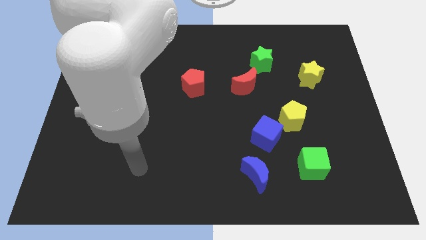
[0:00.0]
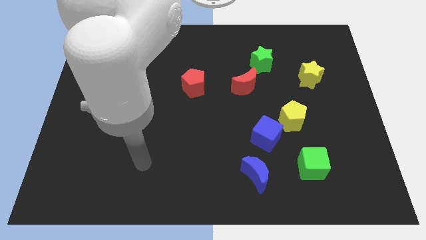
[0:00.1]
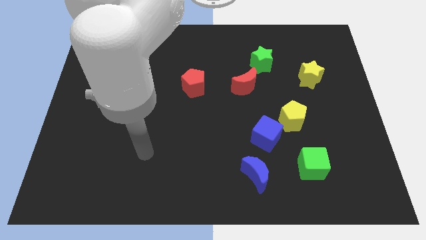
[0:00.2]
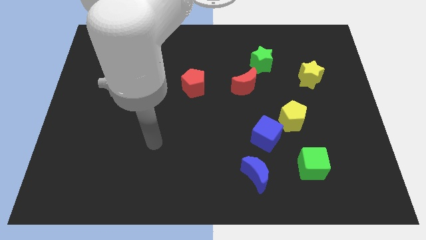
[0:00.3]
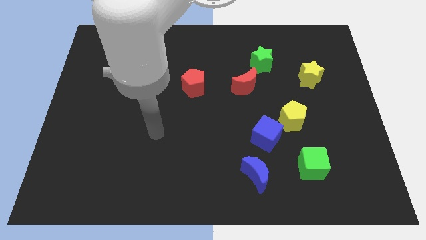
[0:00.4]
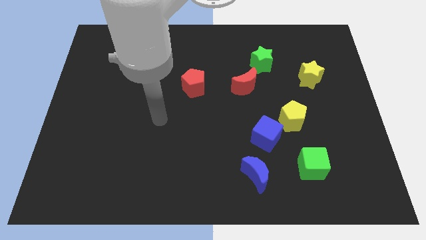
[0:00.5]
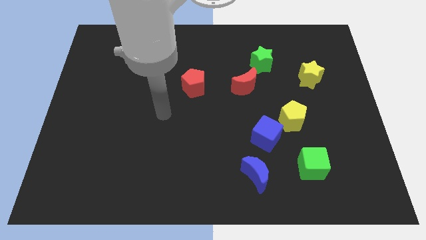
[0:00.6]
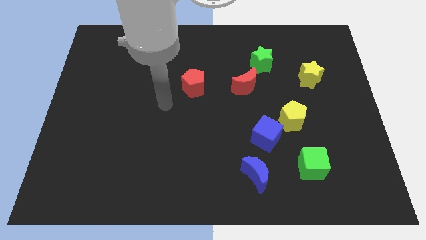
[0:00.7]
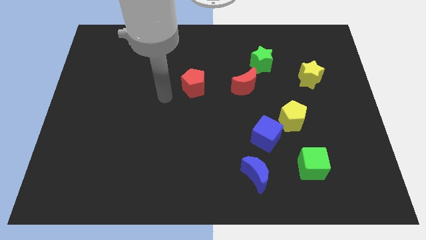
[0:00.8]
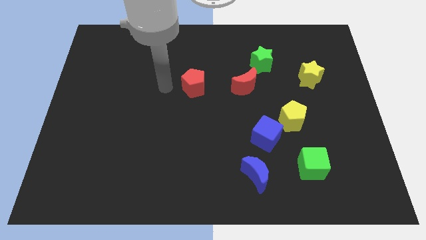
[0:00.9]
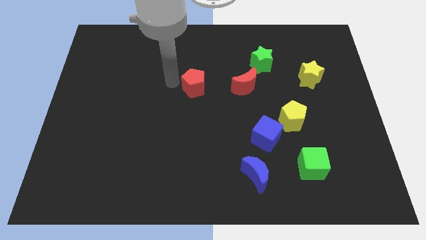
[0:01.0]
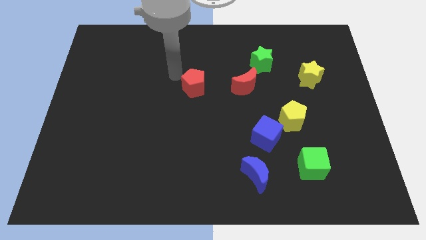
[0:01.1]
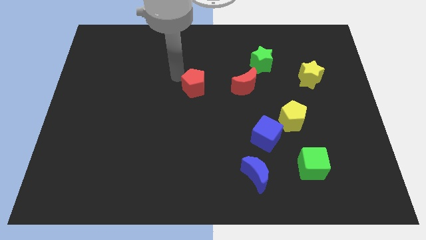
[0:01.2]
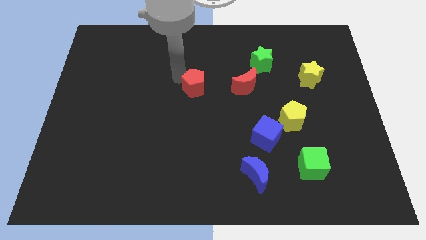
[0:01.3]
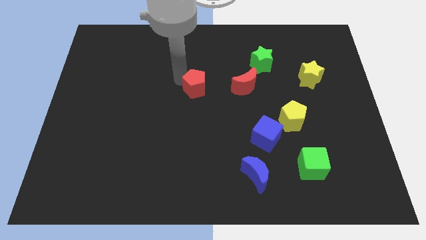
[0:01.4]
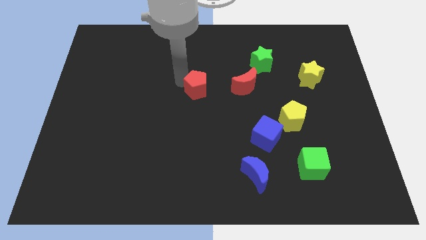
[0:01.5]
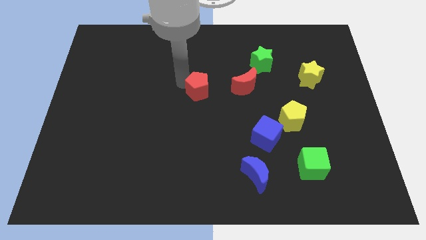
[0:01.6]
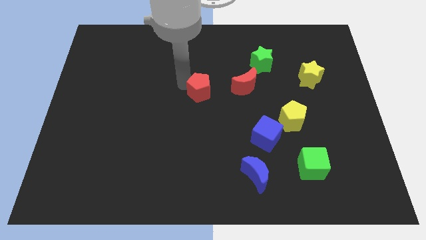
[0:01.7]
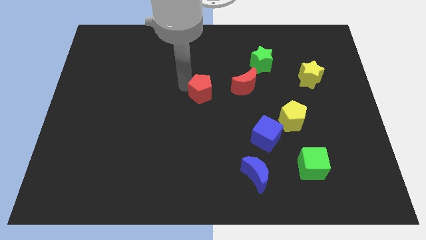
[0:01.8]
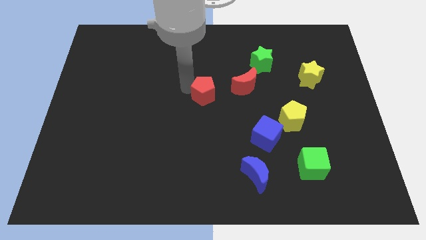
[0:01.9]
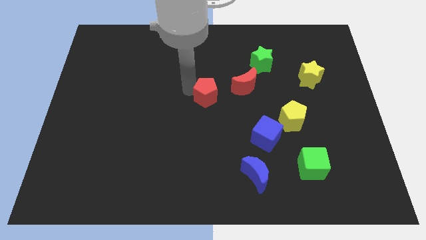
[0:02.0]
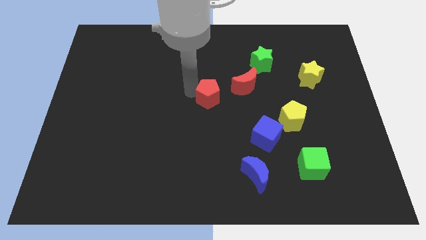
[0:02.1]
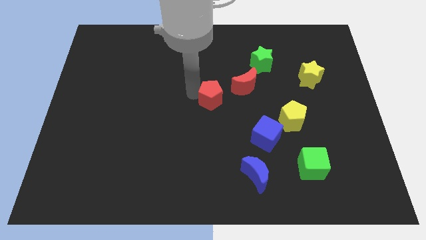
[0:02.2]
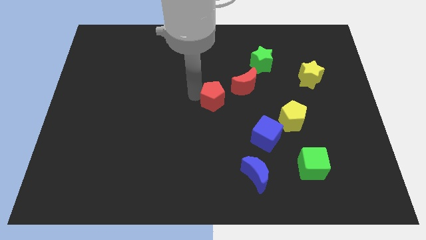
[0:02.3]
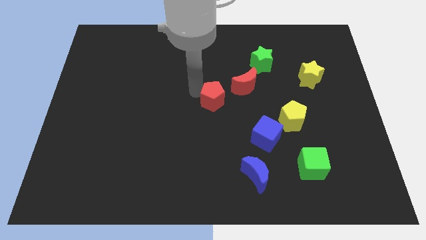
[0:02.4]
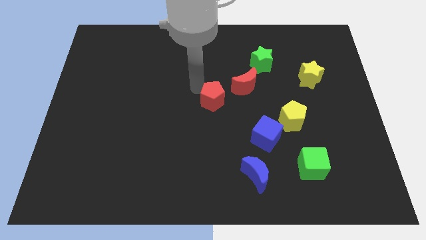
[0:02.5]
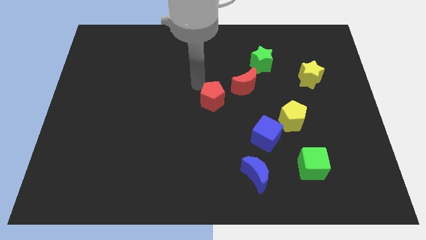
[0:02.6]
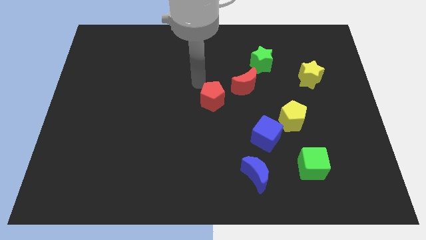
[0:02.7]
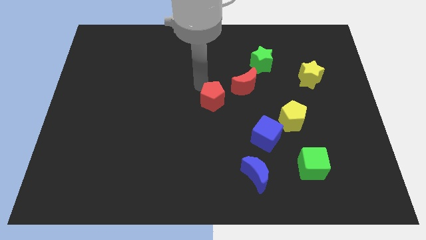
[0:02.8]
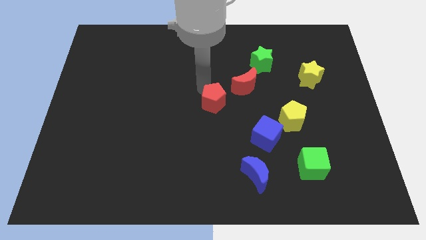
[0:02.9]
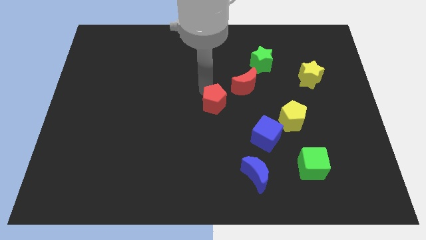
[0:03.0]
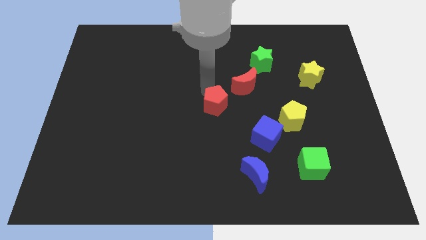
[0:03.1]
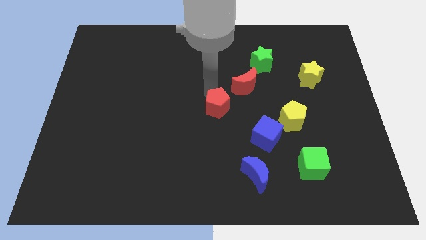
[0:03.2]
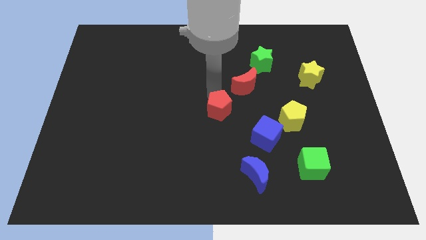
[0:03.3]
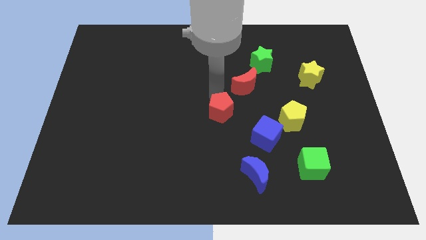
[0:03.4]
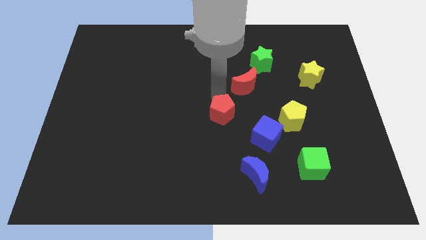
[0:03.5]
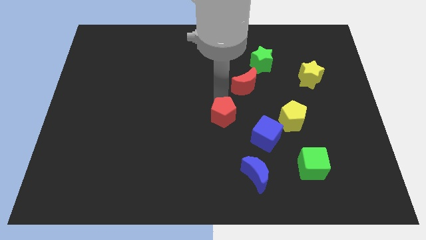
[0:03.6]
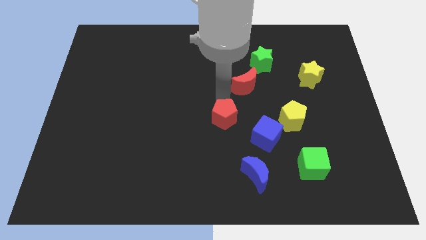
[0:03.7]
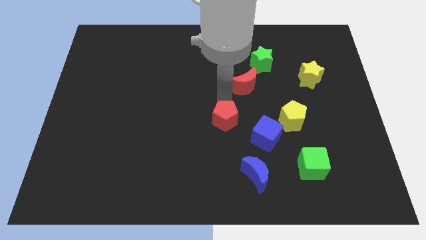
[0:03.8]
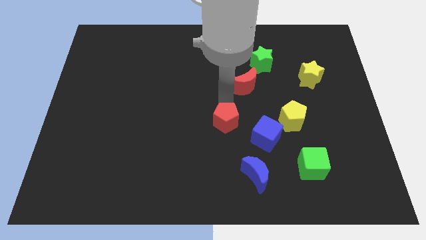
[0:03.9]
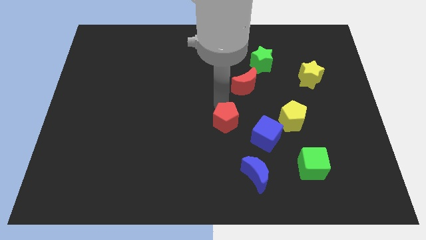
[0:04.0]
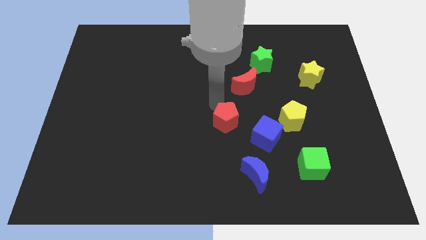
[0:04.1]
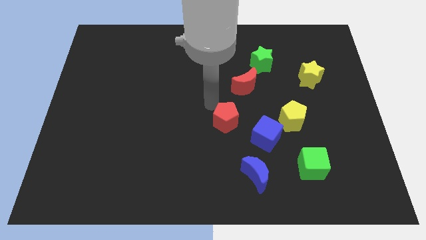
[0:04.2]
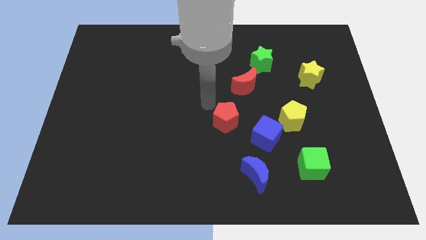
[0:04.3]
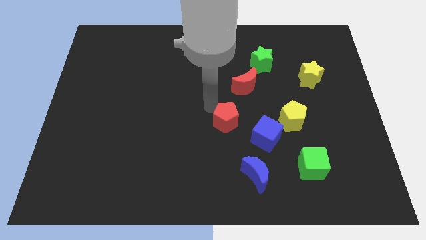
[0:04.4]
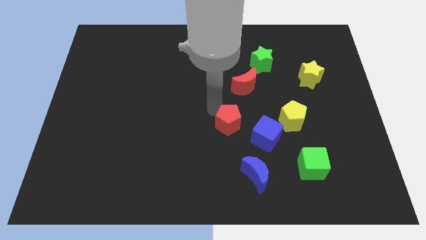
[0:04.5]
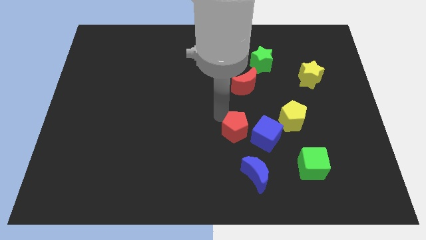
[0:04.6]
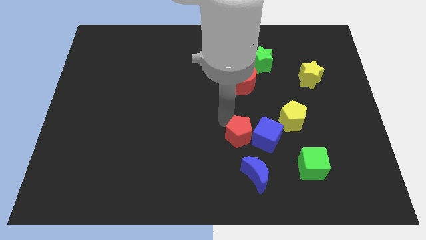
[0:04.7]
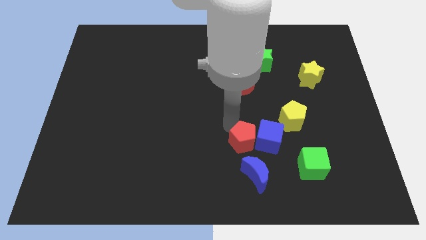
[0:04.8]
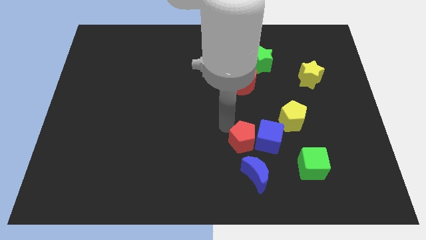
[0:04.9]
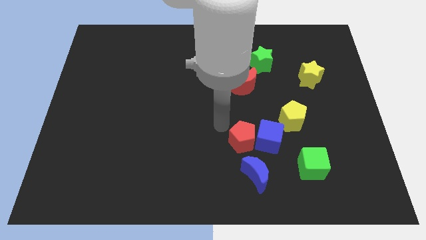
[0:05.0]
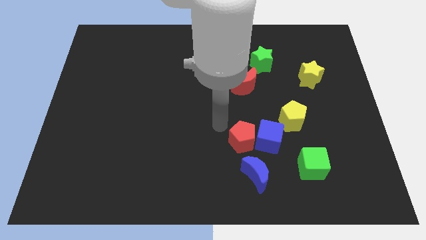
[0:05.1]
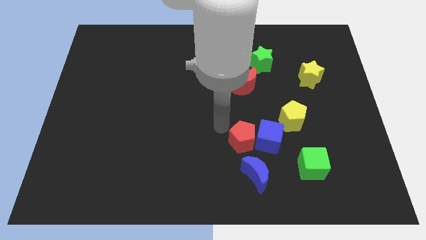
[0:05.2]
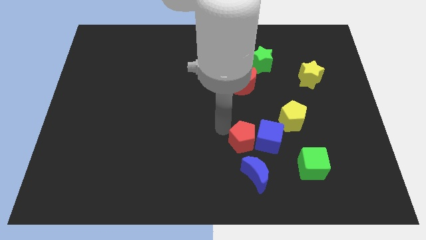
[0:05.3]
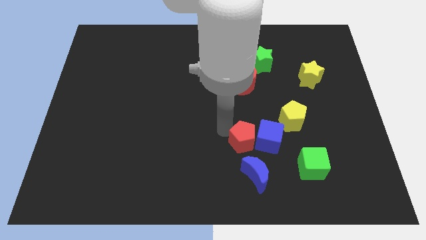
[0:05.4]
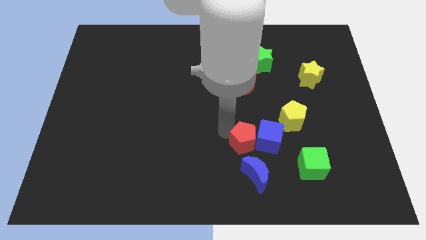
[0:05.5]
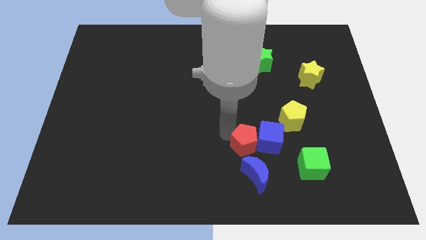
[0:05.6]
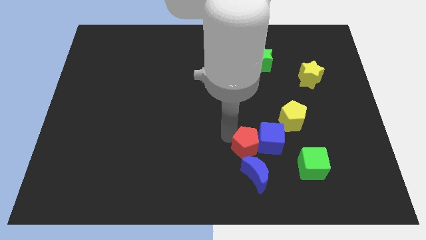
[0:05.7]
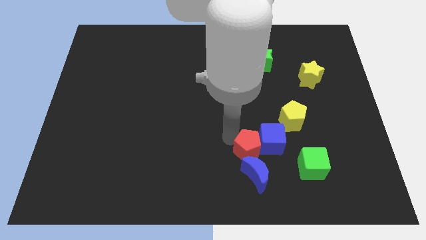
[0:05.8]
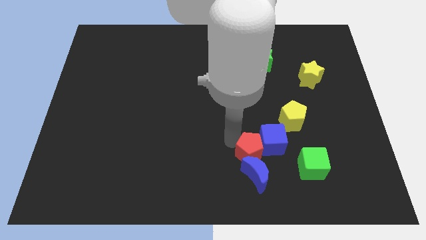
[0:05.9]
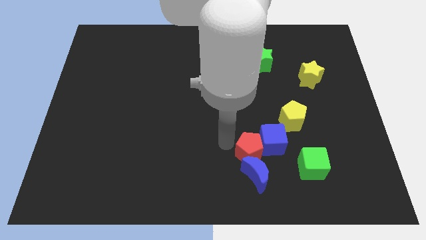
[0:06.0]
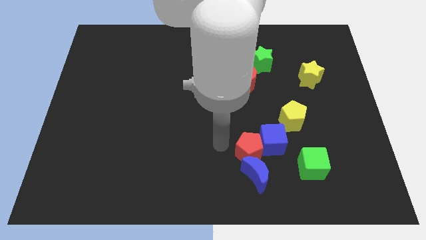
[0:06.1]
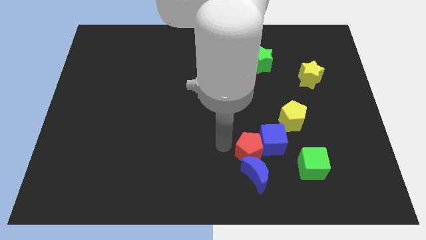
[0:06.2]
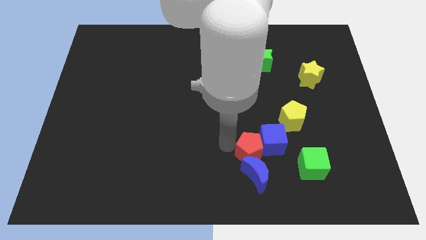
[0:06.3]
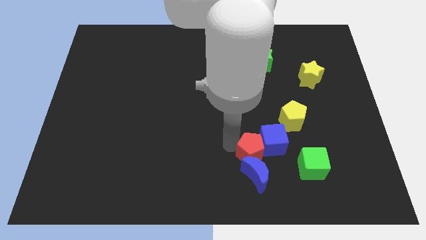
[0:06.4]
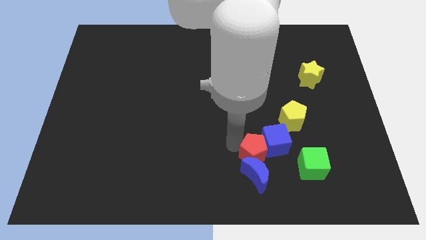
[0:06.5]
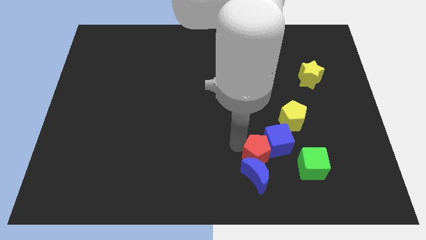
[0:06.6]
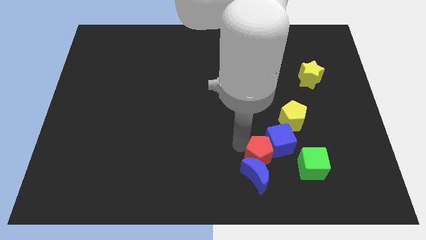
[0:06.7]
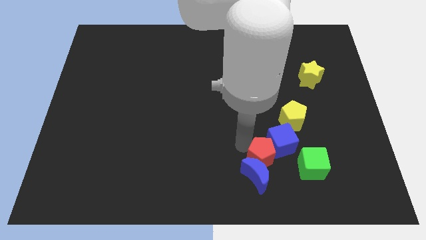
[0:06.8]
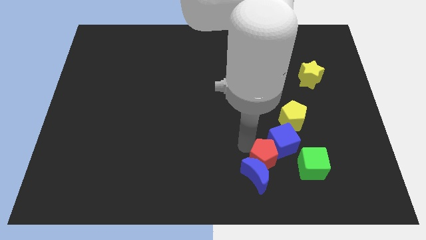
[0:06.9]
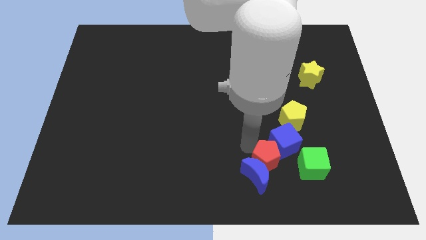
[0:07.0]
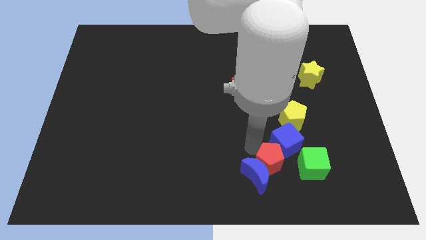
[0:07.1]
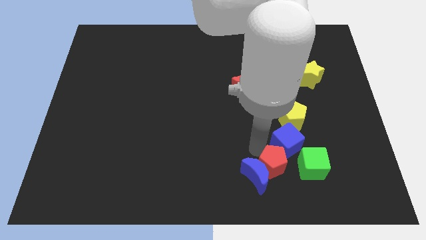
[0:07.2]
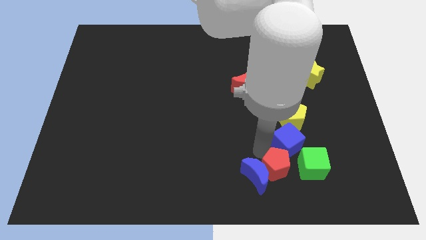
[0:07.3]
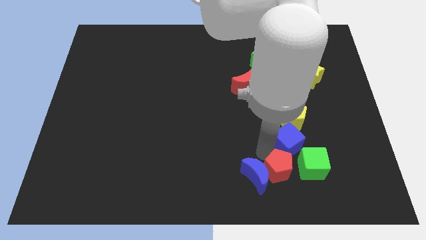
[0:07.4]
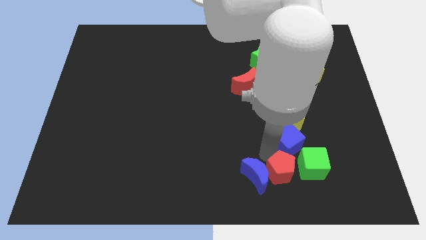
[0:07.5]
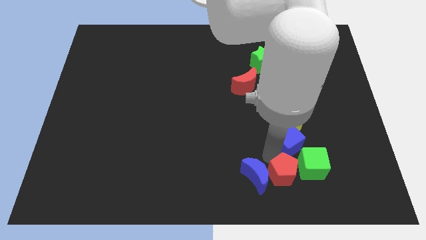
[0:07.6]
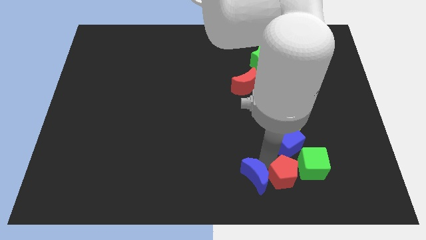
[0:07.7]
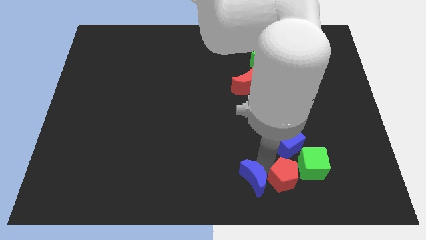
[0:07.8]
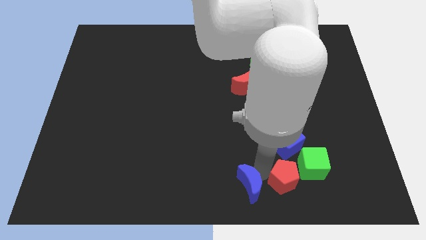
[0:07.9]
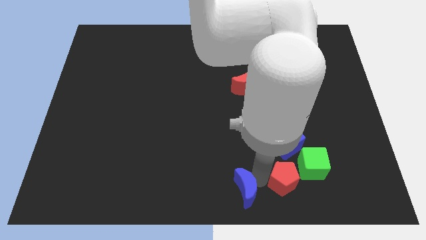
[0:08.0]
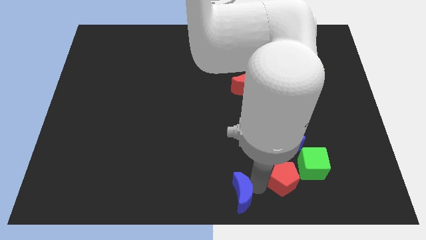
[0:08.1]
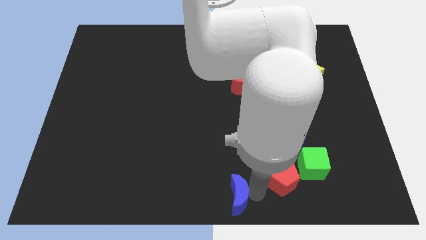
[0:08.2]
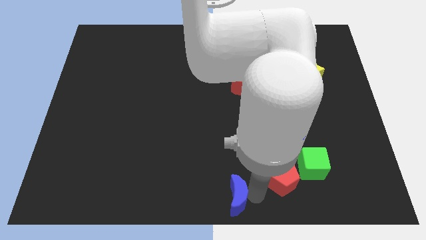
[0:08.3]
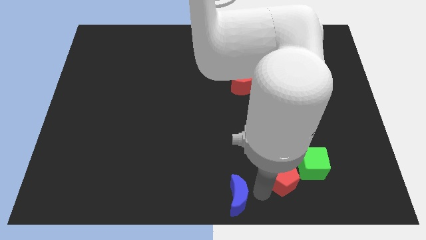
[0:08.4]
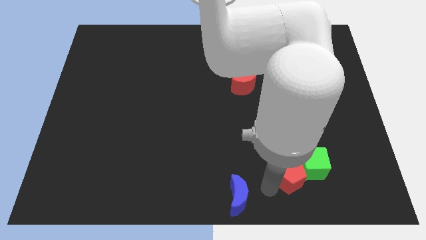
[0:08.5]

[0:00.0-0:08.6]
push the red pentagon next to the green cube
